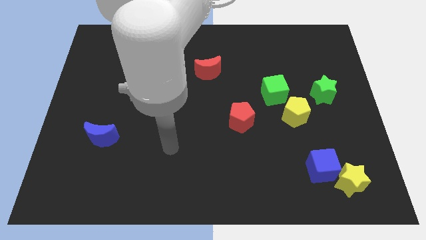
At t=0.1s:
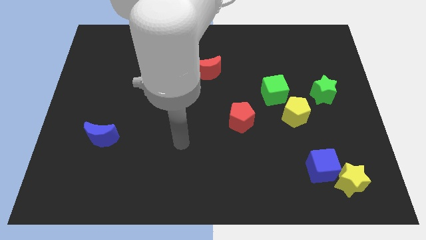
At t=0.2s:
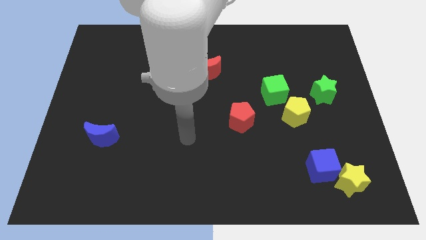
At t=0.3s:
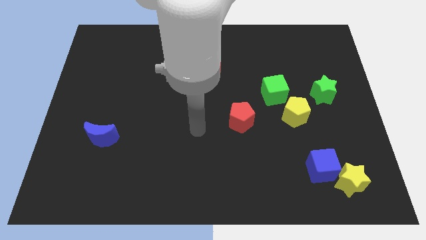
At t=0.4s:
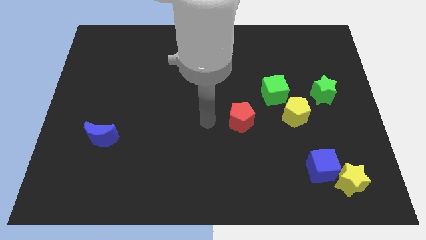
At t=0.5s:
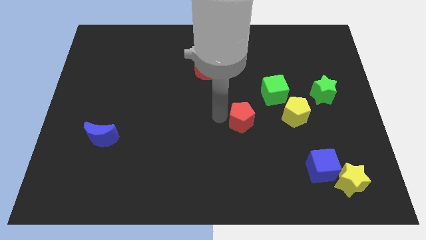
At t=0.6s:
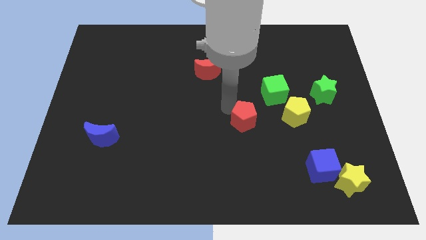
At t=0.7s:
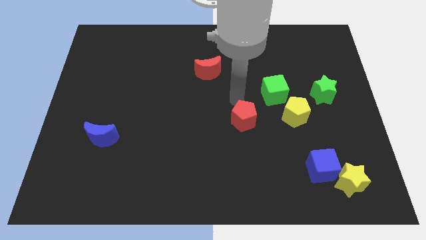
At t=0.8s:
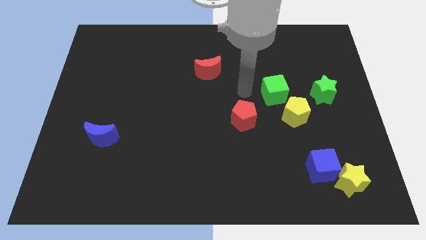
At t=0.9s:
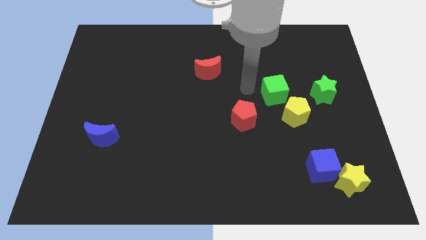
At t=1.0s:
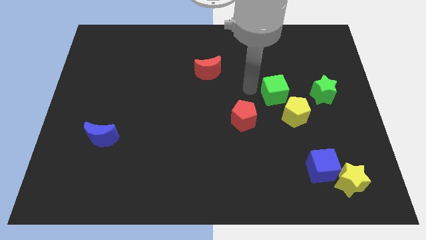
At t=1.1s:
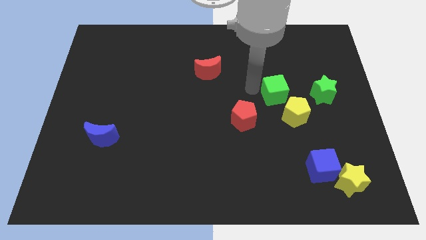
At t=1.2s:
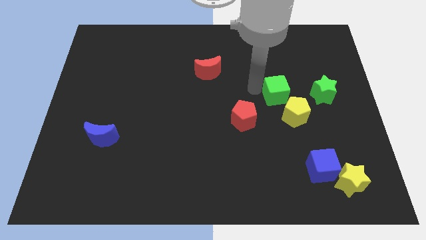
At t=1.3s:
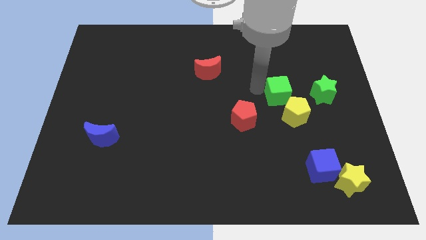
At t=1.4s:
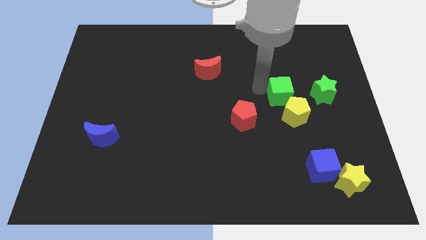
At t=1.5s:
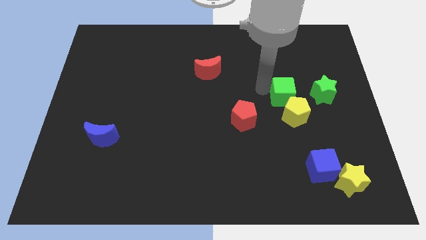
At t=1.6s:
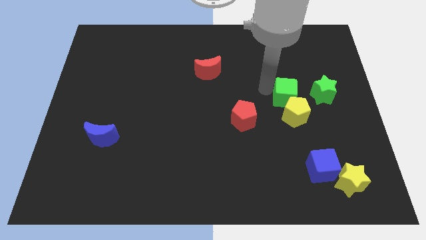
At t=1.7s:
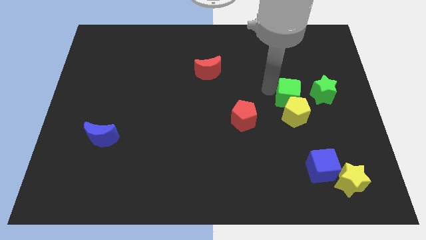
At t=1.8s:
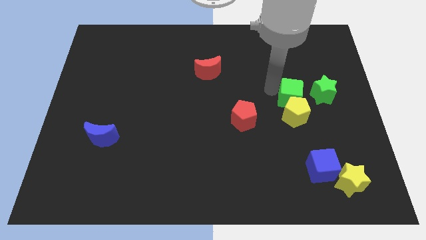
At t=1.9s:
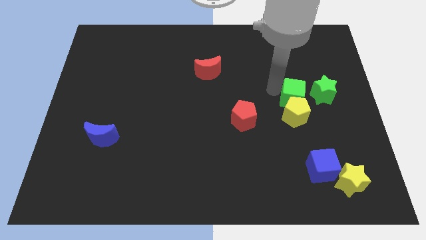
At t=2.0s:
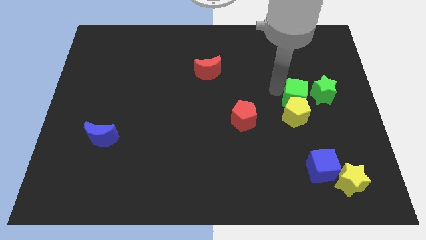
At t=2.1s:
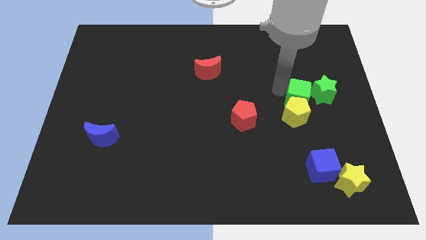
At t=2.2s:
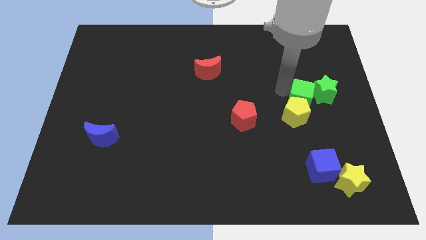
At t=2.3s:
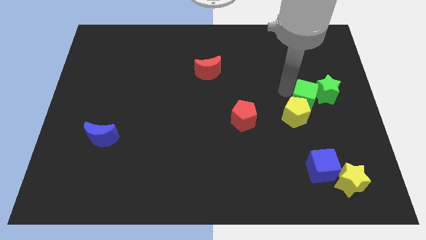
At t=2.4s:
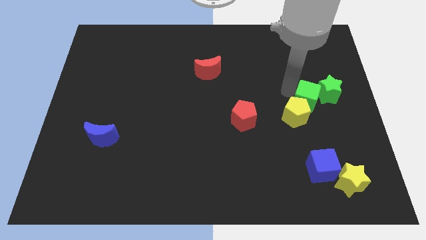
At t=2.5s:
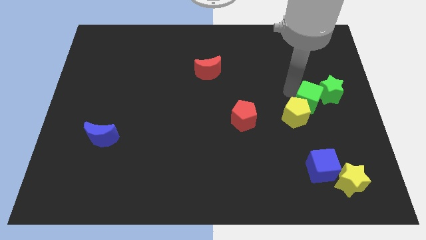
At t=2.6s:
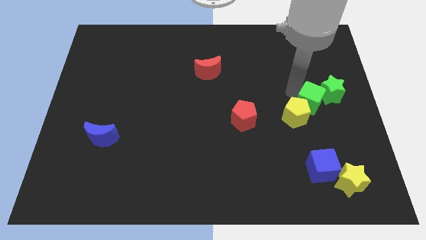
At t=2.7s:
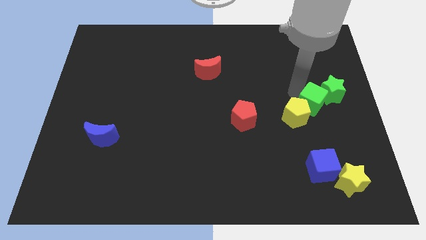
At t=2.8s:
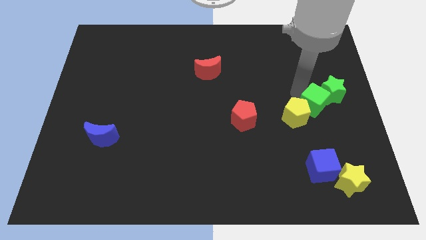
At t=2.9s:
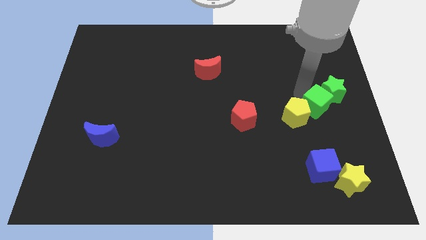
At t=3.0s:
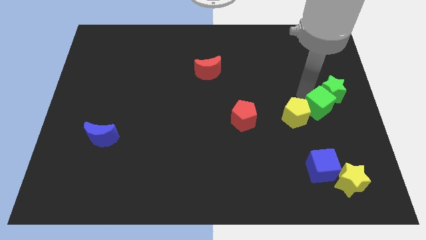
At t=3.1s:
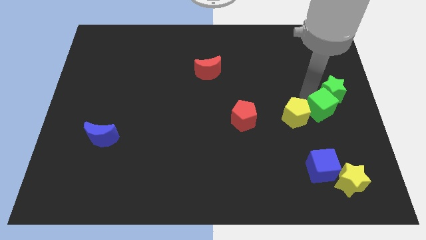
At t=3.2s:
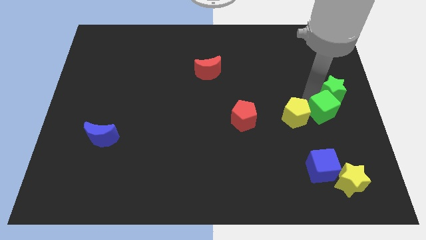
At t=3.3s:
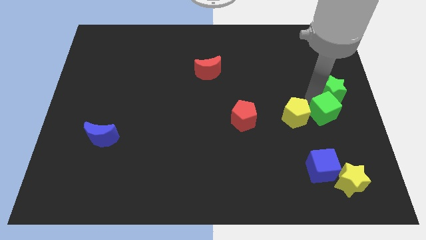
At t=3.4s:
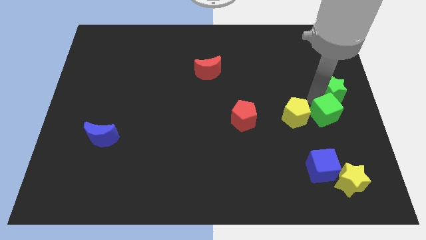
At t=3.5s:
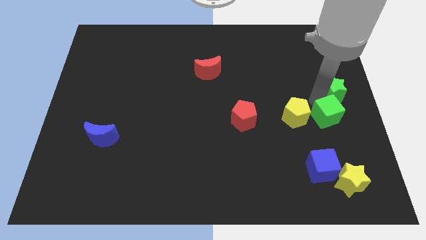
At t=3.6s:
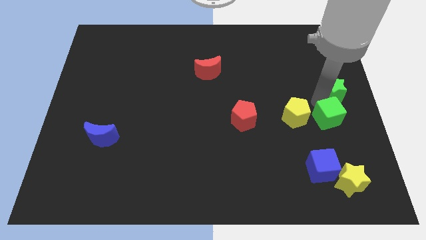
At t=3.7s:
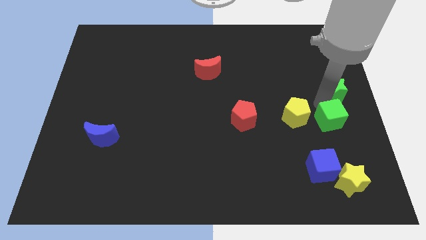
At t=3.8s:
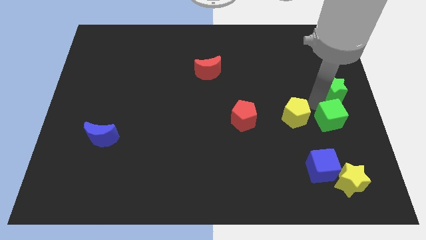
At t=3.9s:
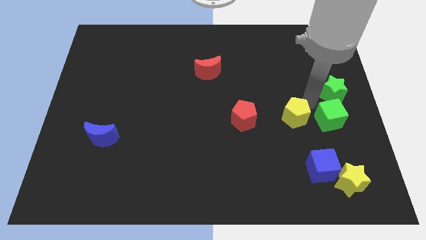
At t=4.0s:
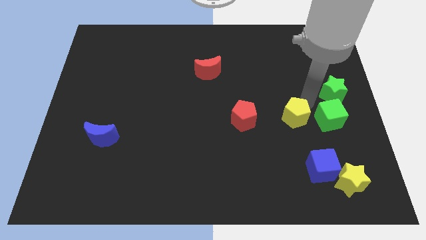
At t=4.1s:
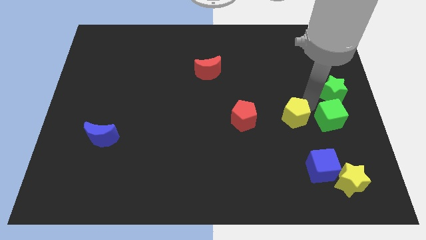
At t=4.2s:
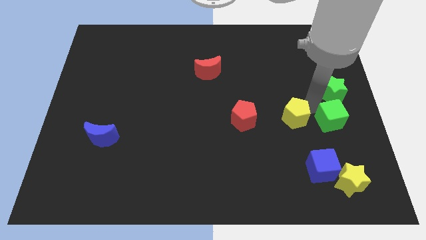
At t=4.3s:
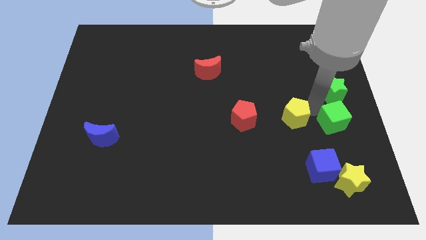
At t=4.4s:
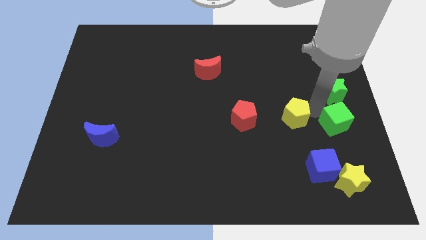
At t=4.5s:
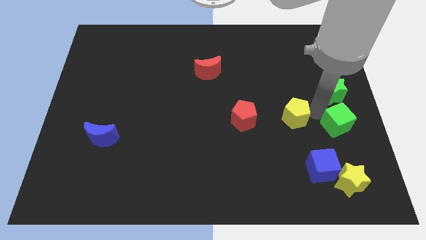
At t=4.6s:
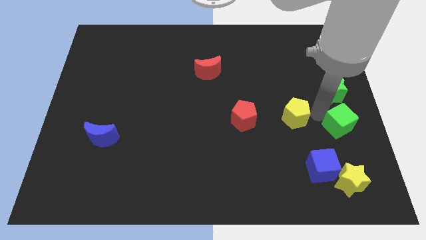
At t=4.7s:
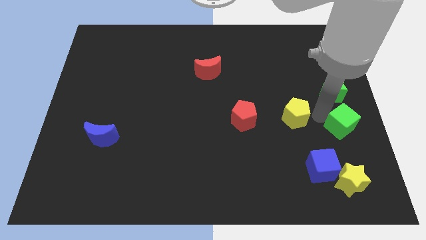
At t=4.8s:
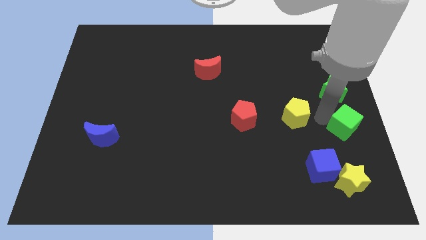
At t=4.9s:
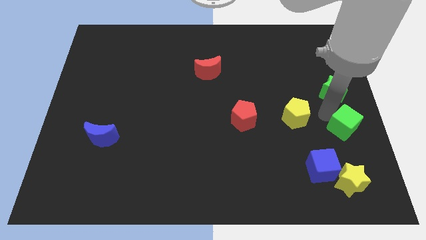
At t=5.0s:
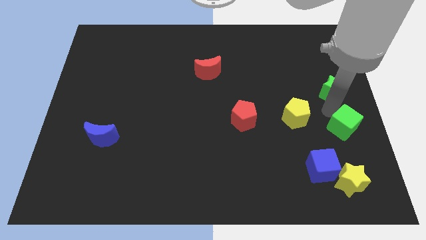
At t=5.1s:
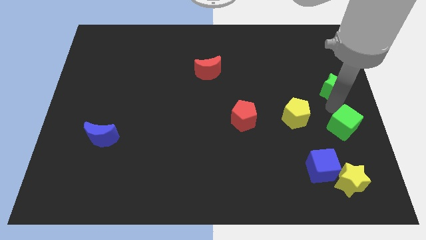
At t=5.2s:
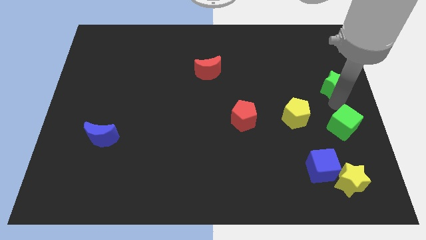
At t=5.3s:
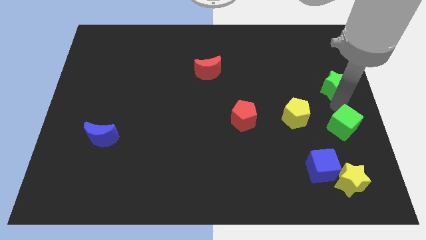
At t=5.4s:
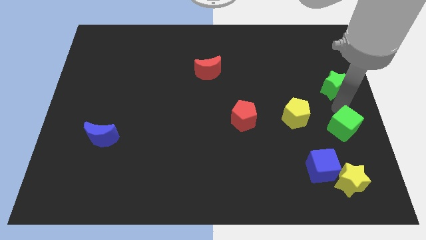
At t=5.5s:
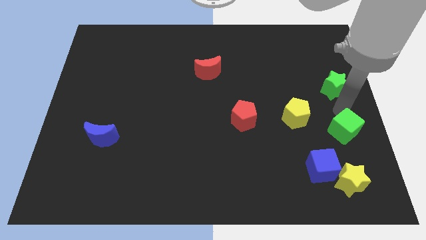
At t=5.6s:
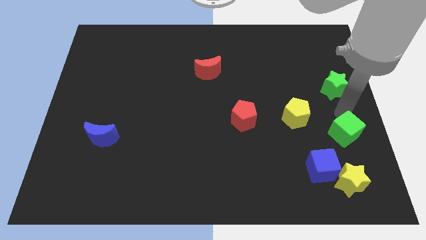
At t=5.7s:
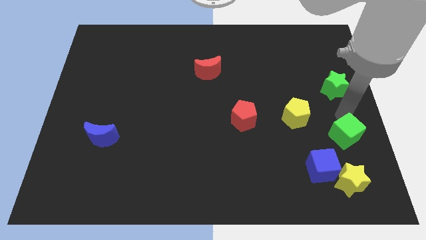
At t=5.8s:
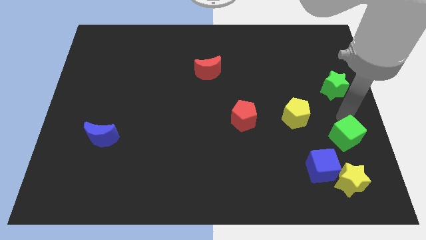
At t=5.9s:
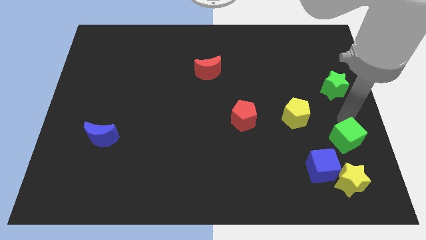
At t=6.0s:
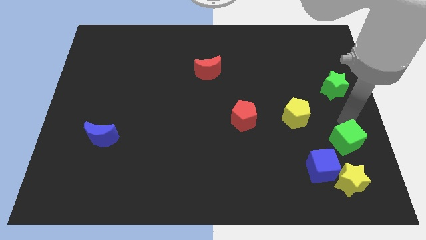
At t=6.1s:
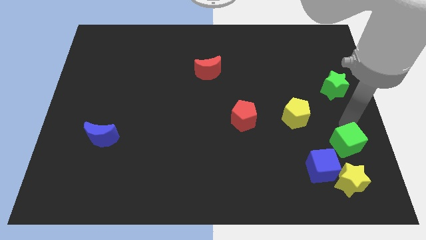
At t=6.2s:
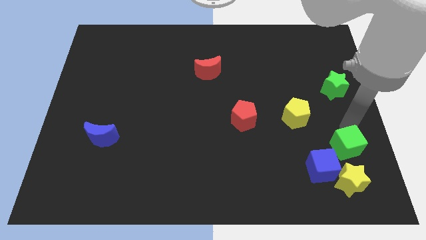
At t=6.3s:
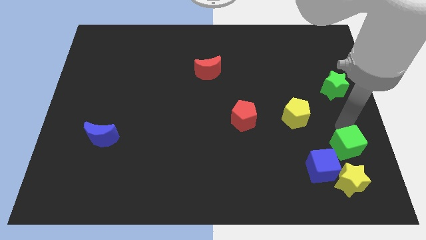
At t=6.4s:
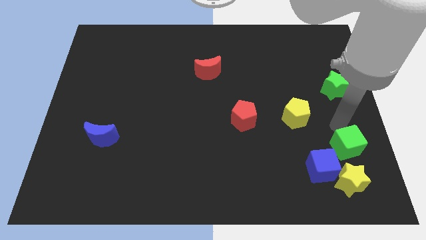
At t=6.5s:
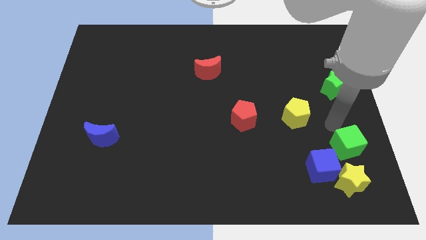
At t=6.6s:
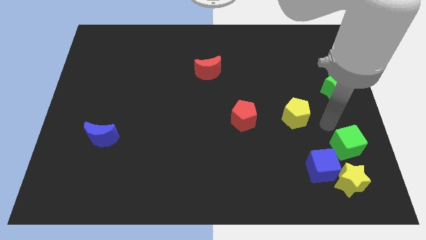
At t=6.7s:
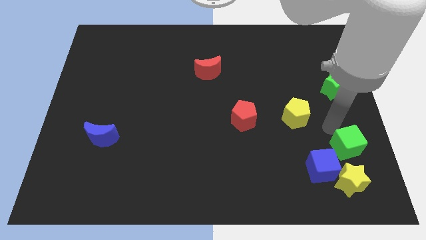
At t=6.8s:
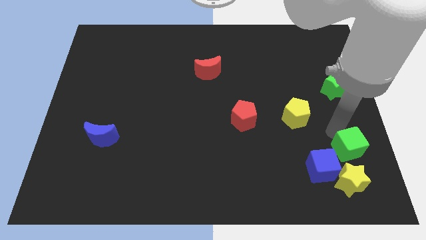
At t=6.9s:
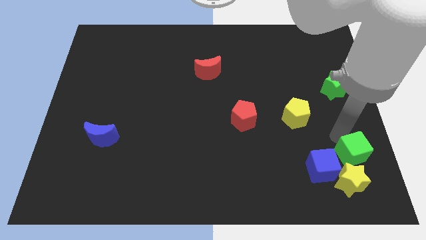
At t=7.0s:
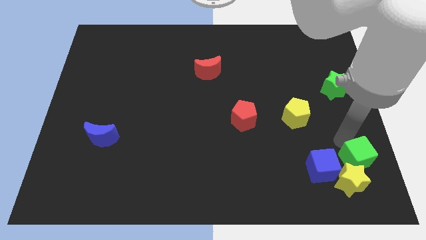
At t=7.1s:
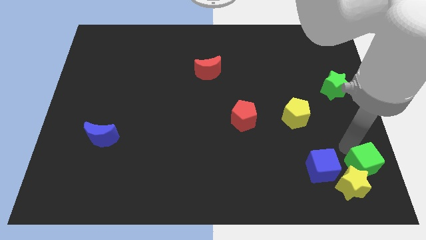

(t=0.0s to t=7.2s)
put the green cube to the bottom right

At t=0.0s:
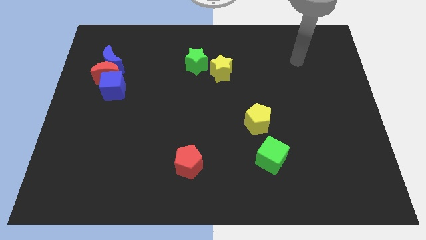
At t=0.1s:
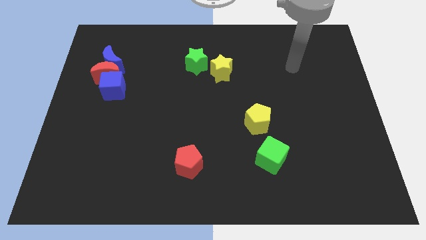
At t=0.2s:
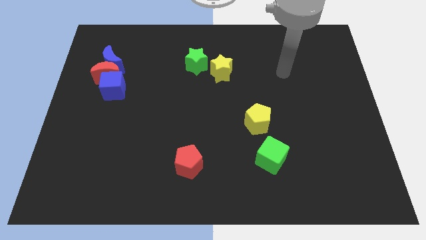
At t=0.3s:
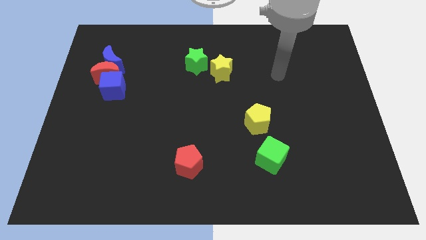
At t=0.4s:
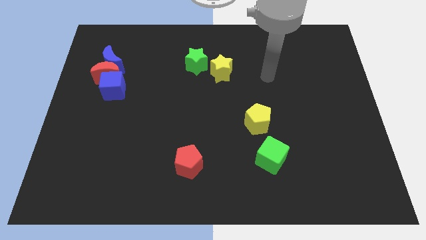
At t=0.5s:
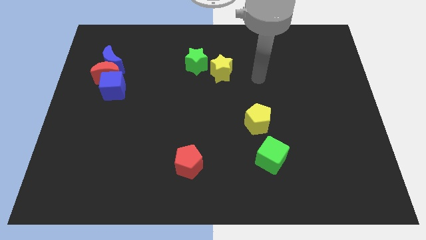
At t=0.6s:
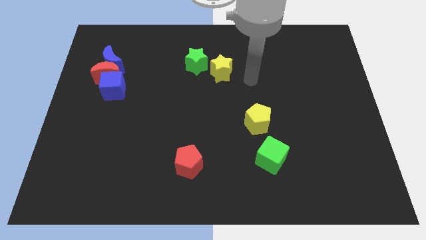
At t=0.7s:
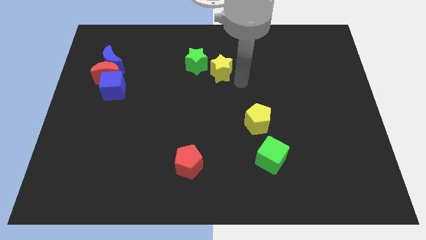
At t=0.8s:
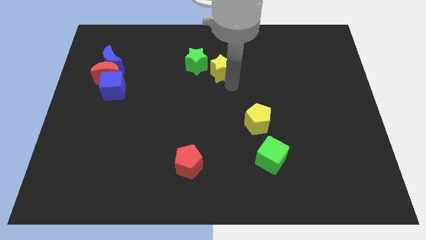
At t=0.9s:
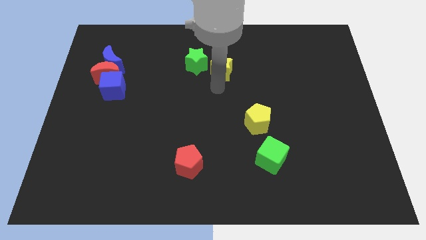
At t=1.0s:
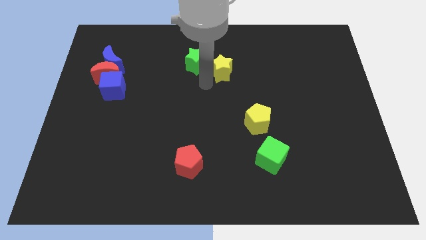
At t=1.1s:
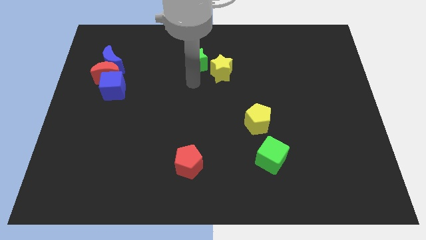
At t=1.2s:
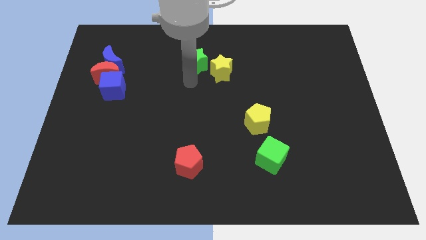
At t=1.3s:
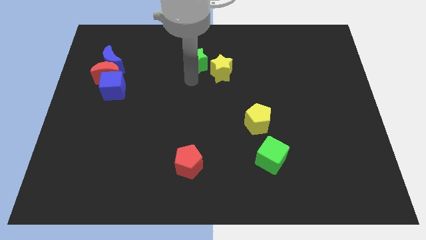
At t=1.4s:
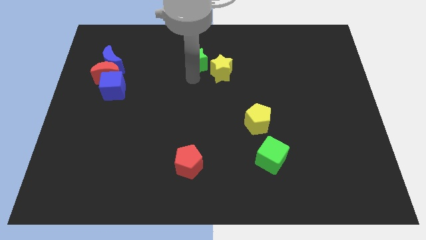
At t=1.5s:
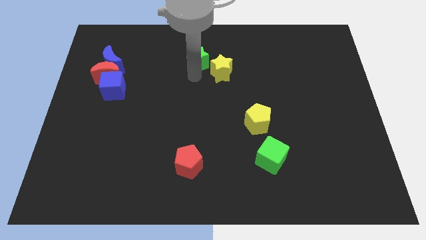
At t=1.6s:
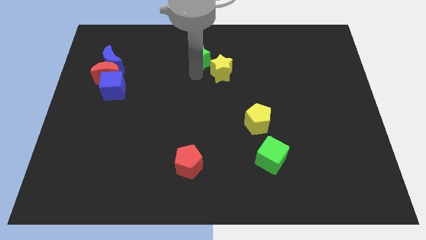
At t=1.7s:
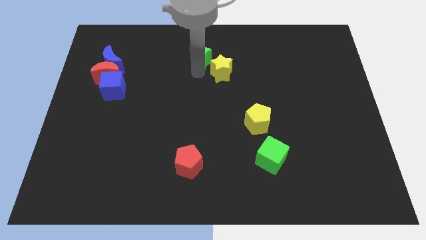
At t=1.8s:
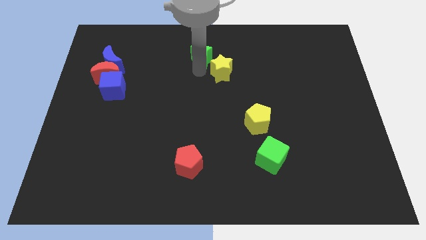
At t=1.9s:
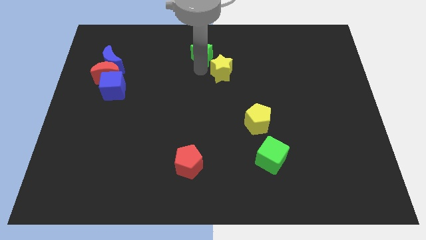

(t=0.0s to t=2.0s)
move the green star to the towards your base
